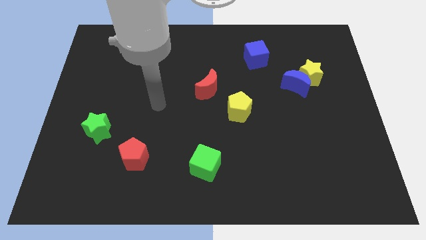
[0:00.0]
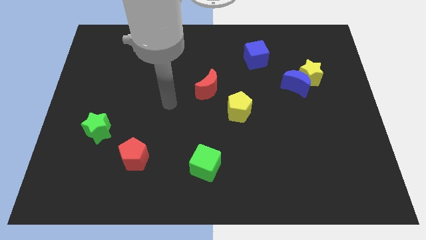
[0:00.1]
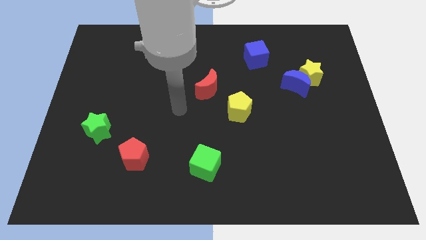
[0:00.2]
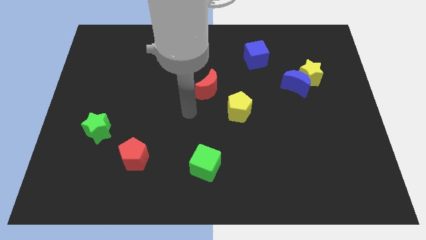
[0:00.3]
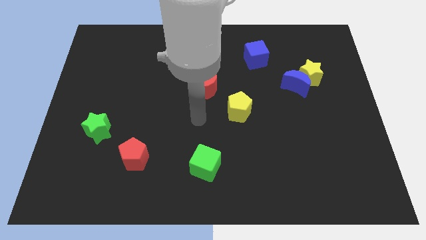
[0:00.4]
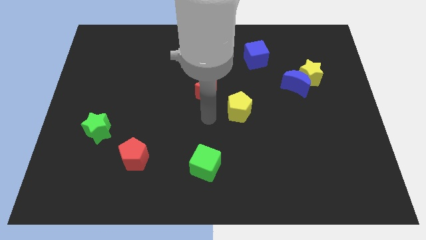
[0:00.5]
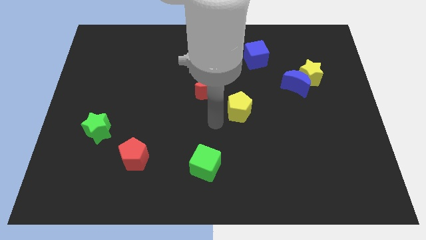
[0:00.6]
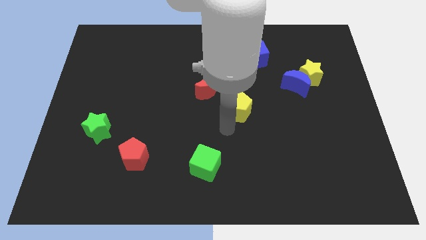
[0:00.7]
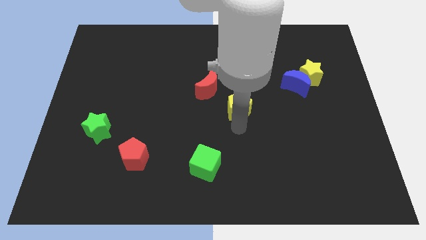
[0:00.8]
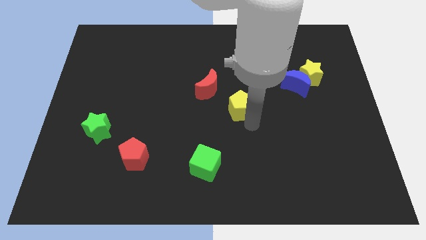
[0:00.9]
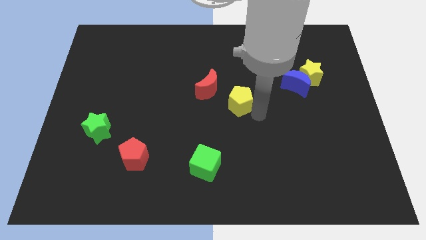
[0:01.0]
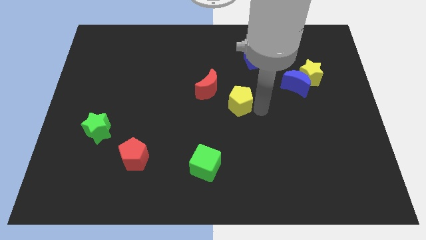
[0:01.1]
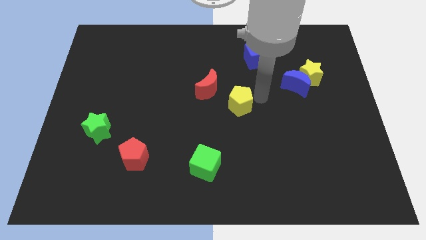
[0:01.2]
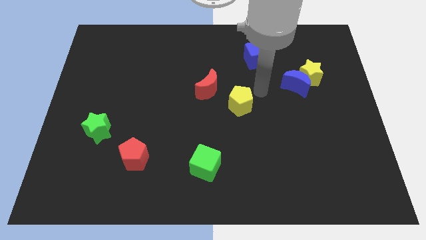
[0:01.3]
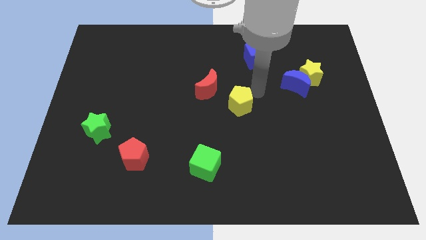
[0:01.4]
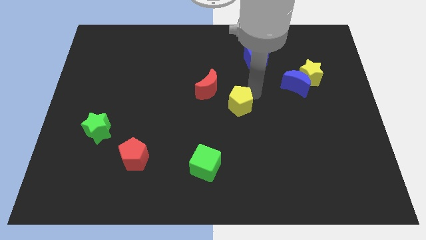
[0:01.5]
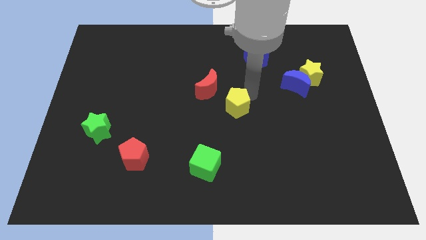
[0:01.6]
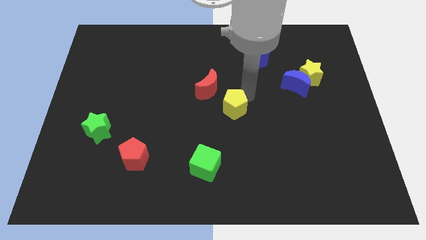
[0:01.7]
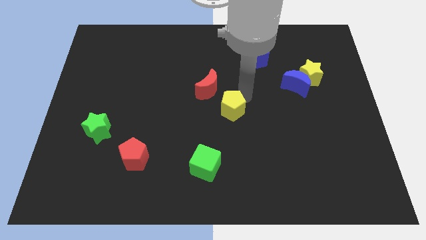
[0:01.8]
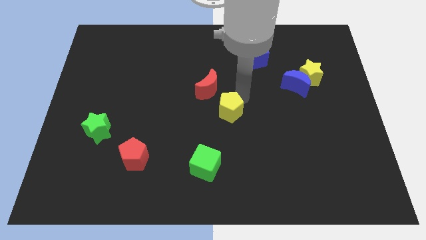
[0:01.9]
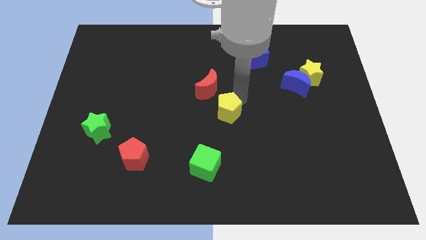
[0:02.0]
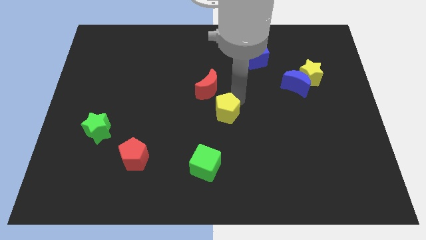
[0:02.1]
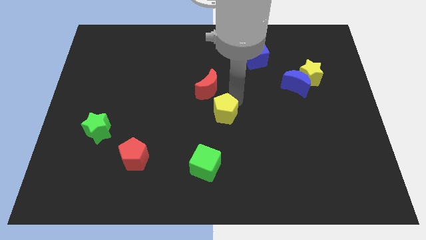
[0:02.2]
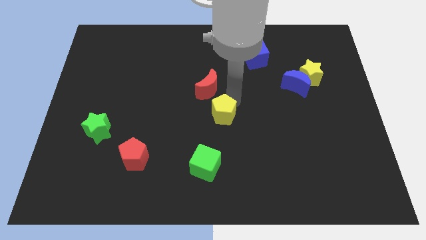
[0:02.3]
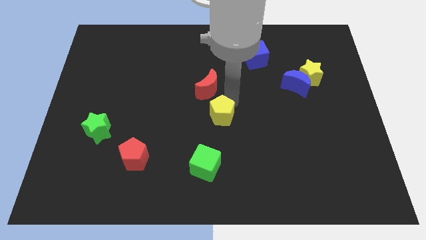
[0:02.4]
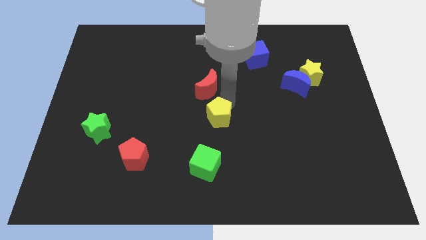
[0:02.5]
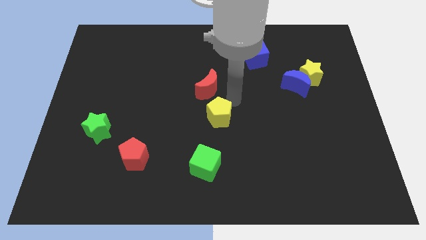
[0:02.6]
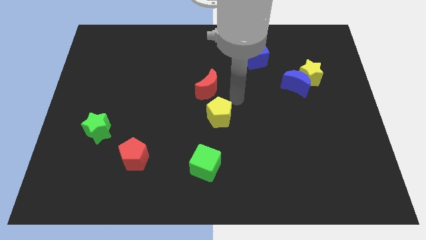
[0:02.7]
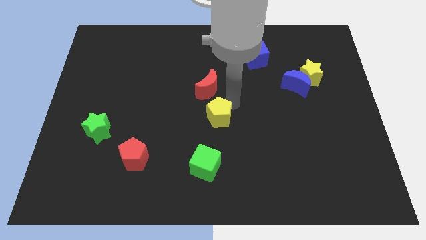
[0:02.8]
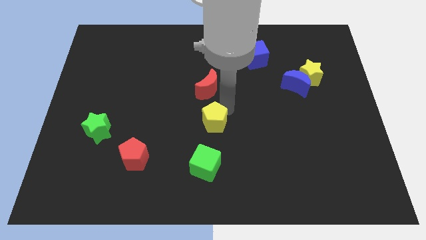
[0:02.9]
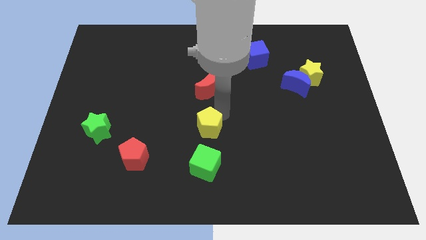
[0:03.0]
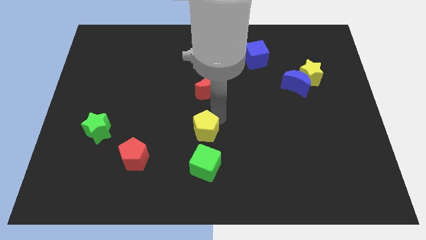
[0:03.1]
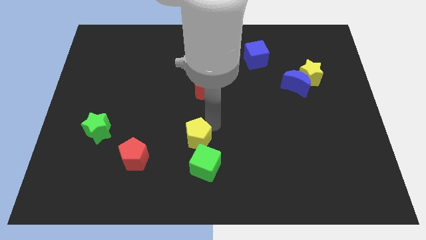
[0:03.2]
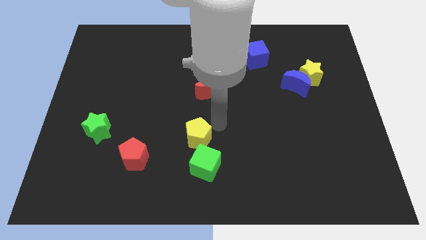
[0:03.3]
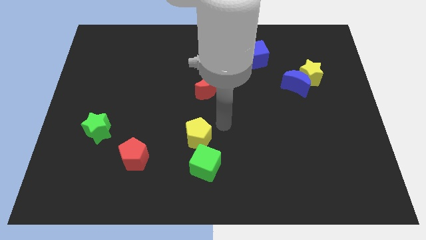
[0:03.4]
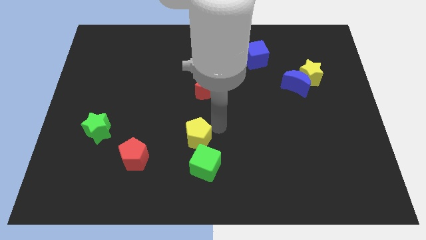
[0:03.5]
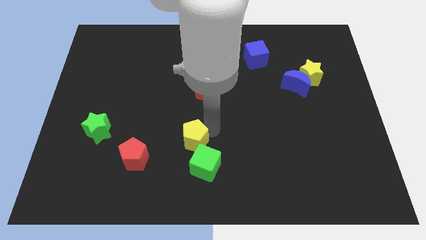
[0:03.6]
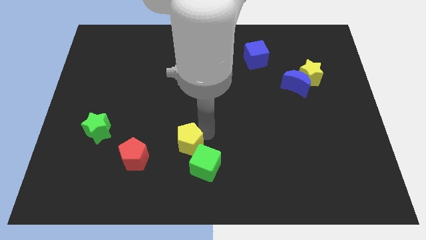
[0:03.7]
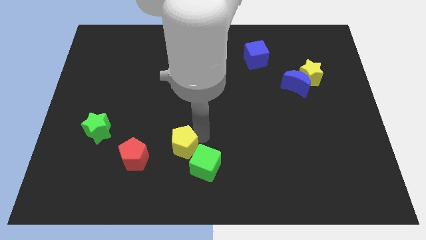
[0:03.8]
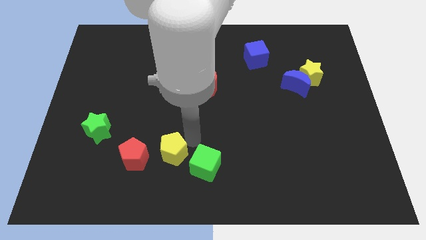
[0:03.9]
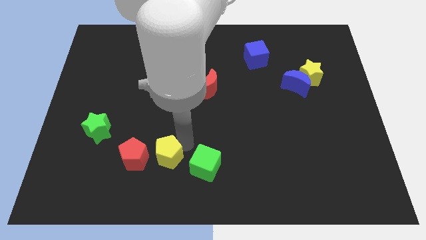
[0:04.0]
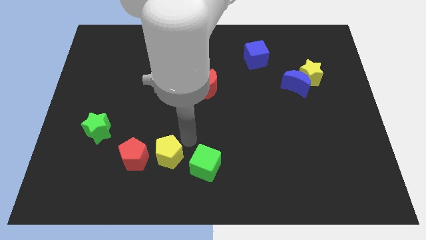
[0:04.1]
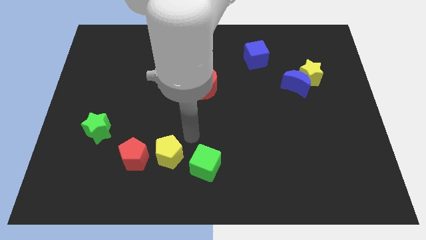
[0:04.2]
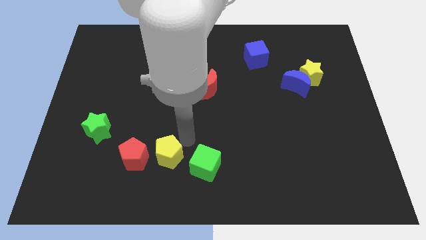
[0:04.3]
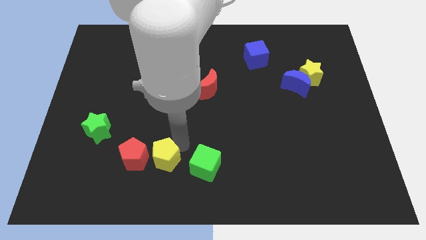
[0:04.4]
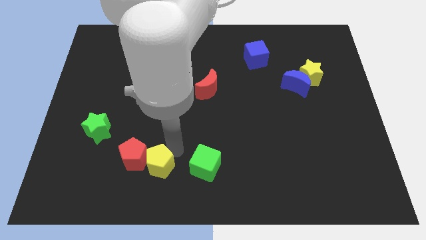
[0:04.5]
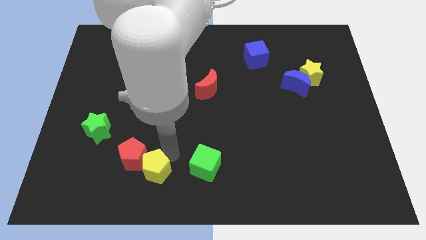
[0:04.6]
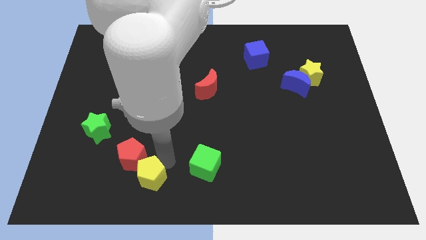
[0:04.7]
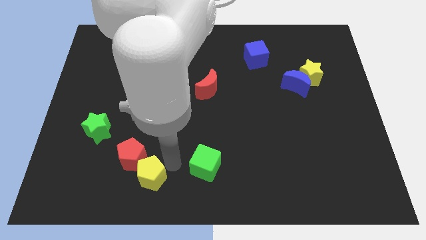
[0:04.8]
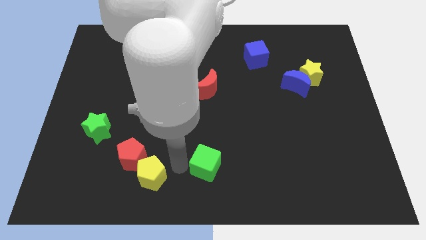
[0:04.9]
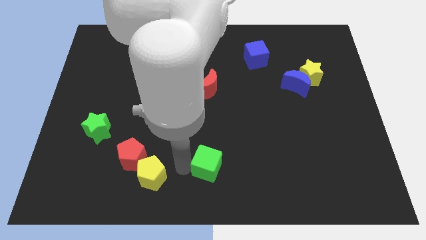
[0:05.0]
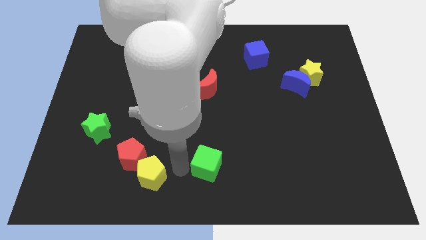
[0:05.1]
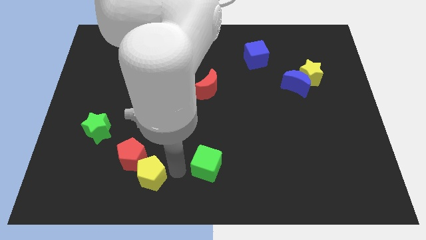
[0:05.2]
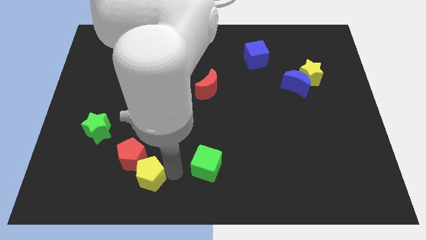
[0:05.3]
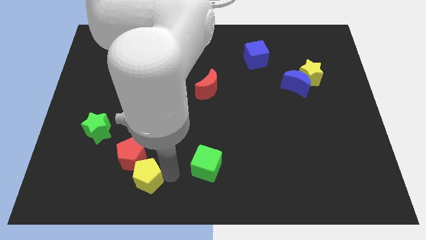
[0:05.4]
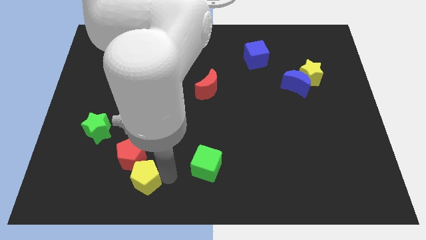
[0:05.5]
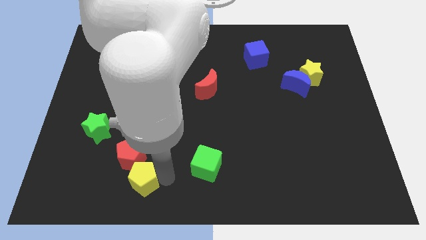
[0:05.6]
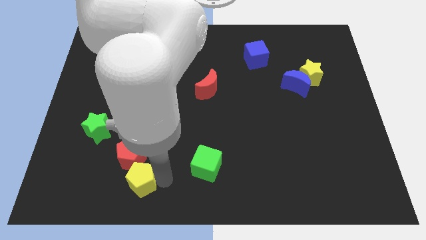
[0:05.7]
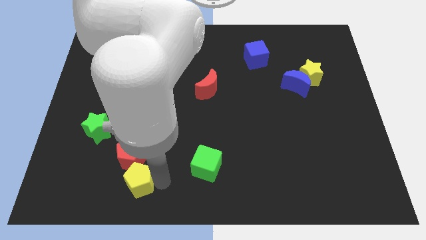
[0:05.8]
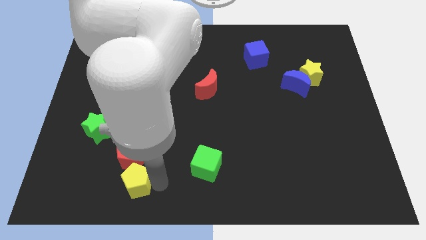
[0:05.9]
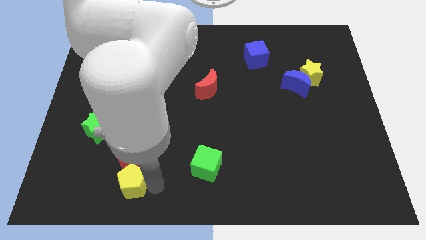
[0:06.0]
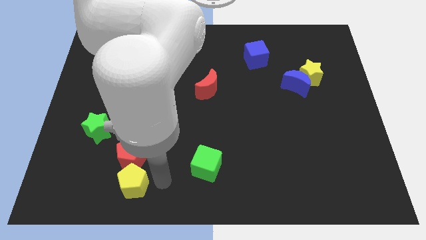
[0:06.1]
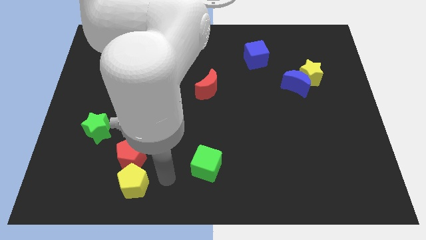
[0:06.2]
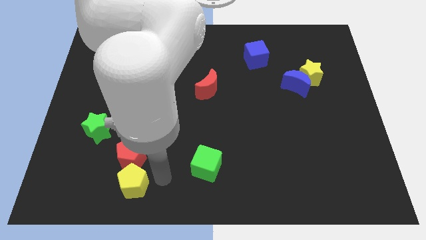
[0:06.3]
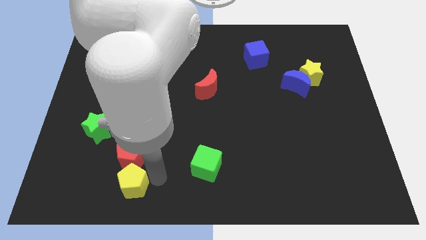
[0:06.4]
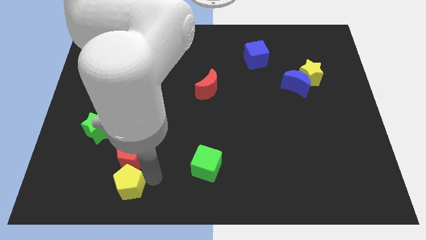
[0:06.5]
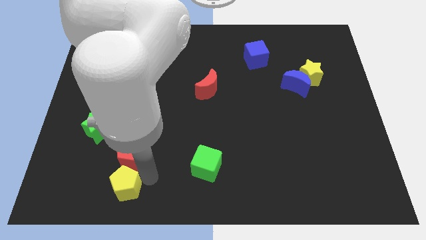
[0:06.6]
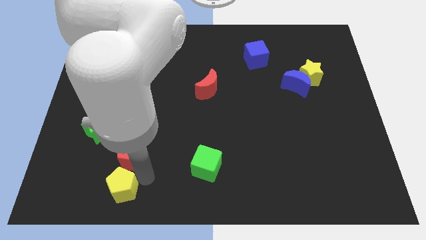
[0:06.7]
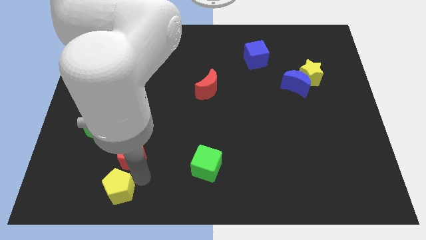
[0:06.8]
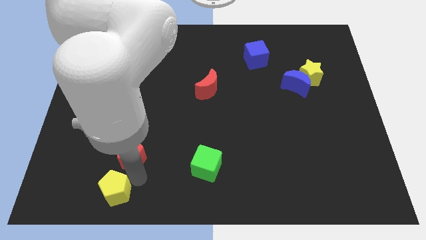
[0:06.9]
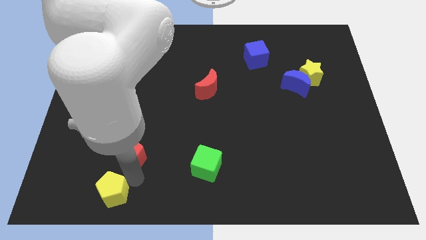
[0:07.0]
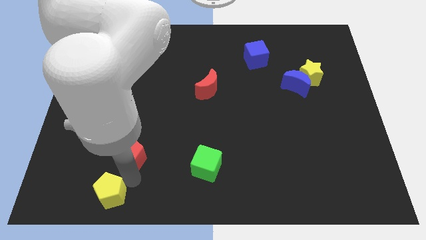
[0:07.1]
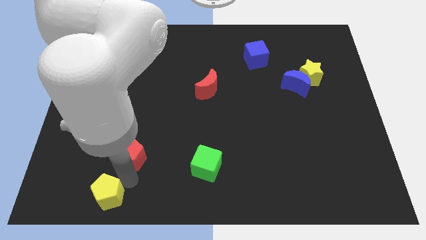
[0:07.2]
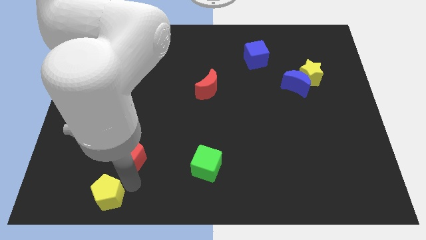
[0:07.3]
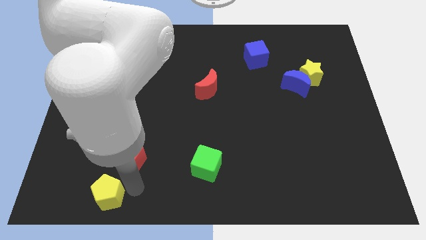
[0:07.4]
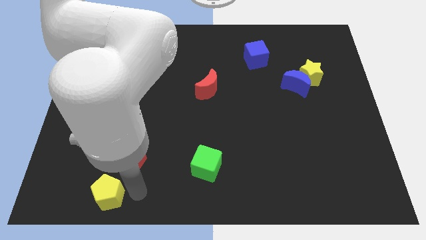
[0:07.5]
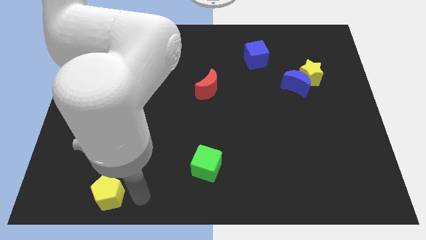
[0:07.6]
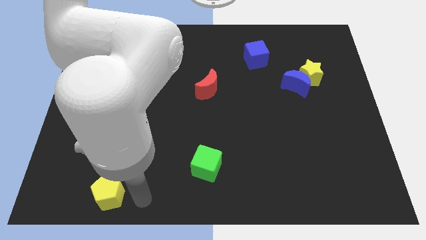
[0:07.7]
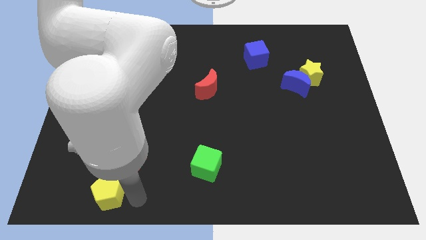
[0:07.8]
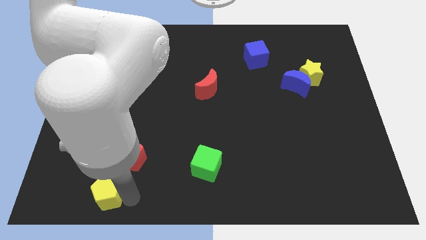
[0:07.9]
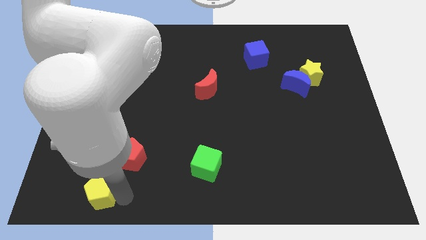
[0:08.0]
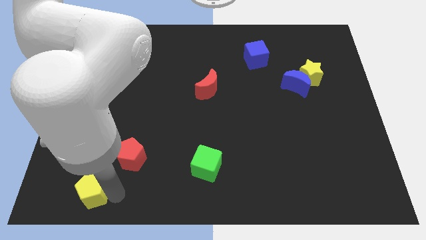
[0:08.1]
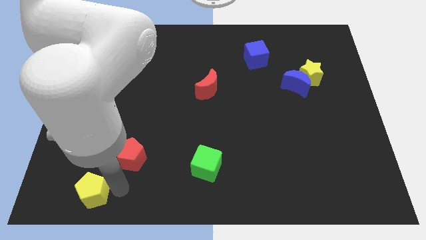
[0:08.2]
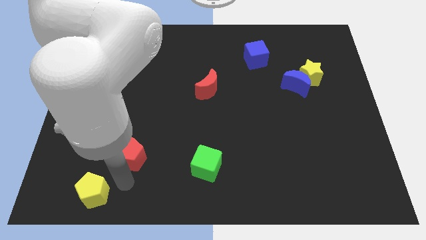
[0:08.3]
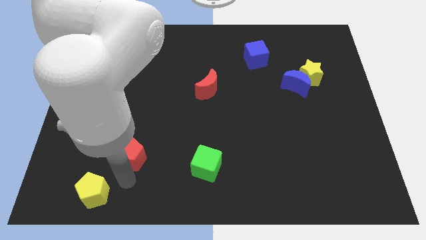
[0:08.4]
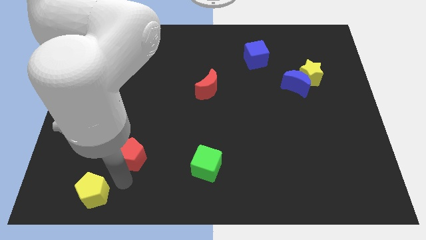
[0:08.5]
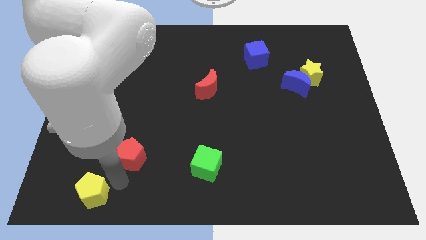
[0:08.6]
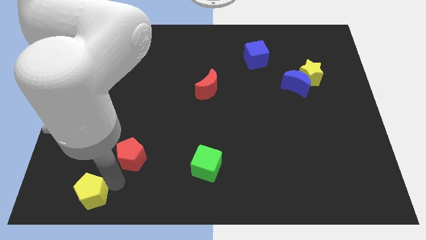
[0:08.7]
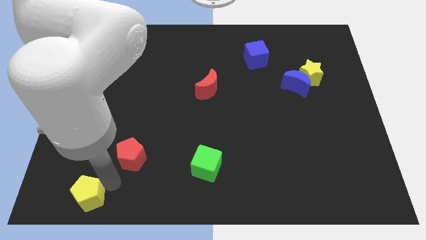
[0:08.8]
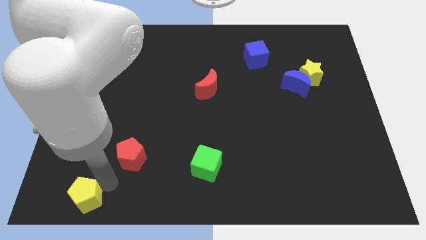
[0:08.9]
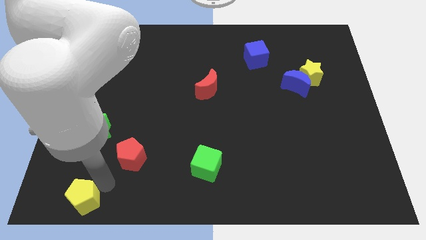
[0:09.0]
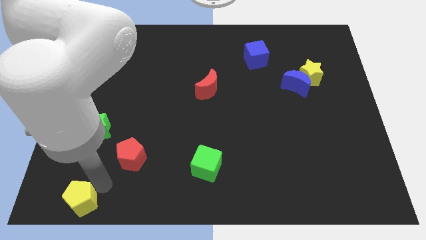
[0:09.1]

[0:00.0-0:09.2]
push the yellow pentagon to the lower left corner
